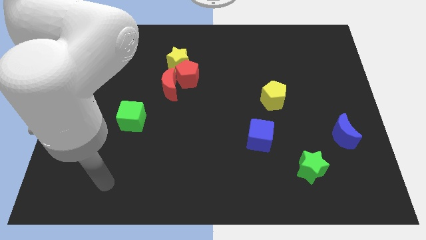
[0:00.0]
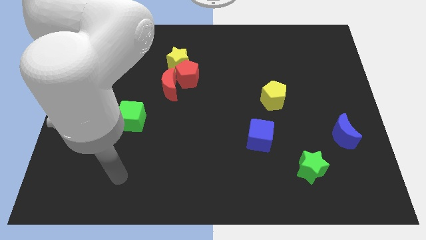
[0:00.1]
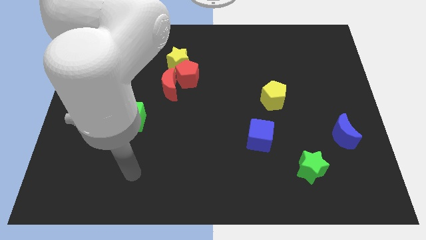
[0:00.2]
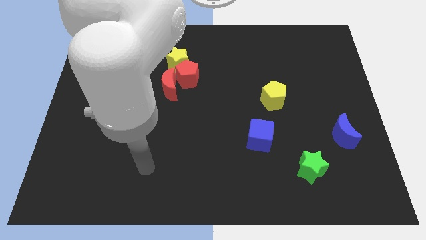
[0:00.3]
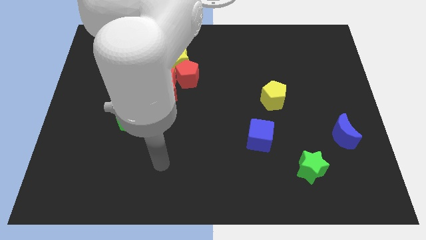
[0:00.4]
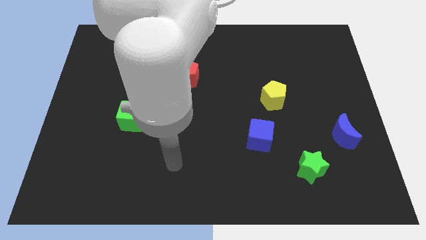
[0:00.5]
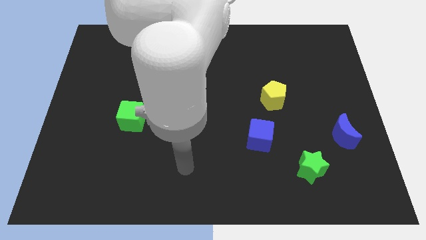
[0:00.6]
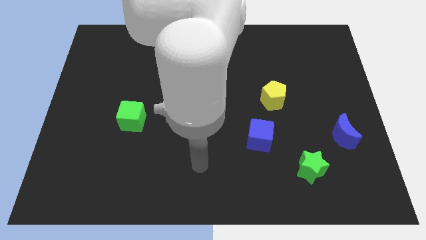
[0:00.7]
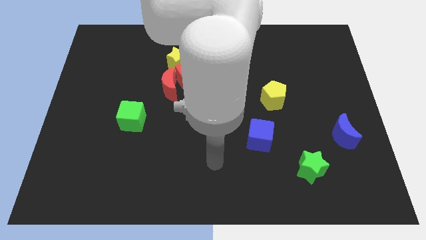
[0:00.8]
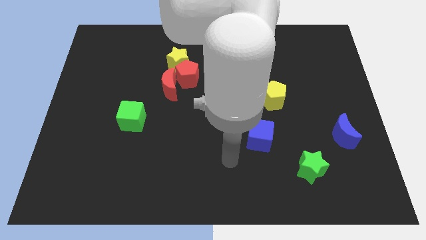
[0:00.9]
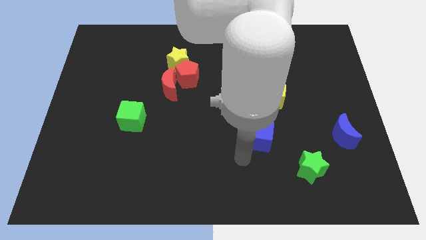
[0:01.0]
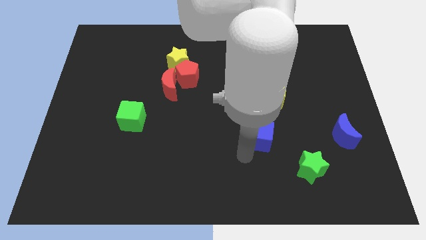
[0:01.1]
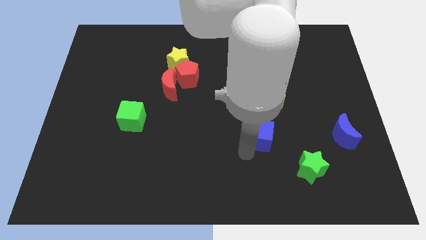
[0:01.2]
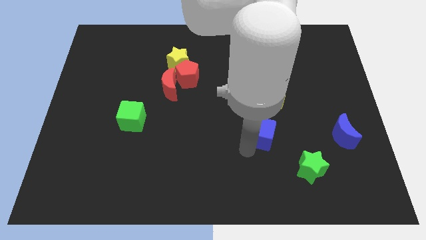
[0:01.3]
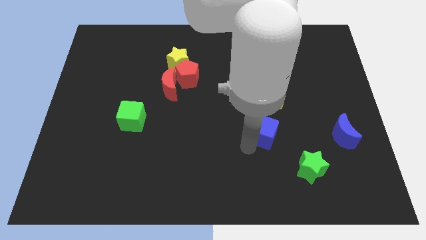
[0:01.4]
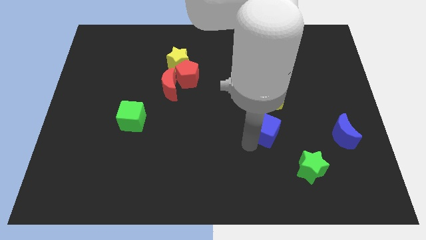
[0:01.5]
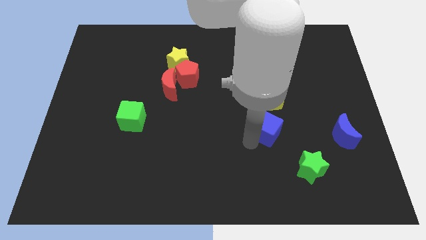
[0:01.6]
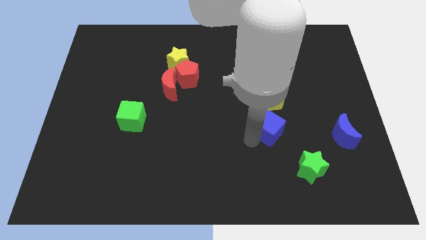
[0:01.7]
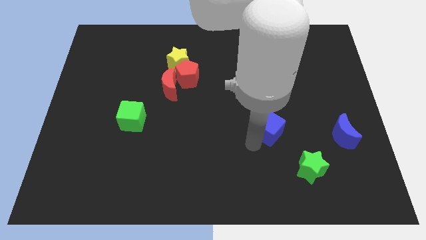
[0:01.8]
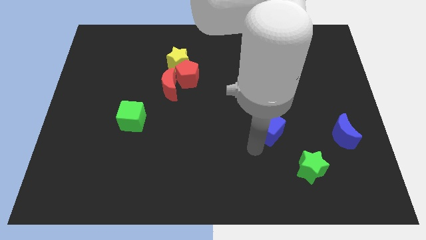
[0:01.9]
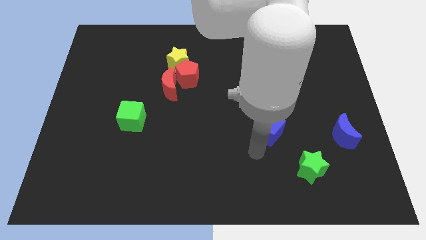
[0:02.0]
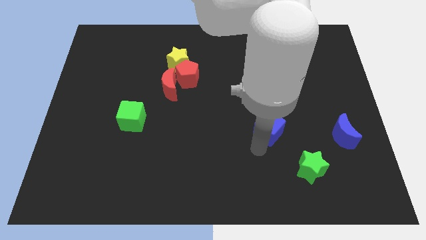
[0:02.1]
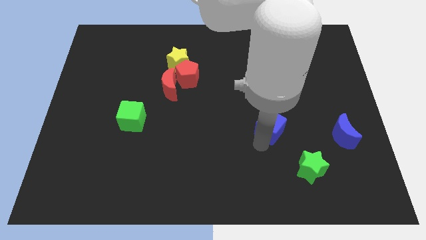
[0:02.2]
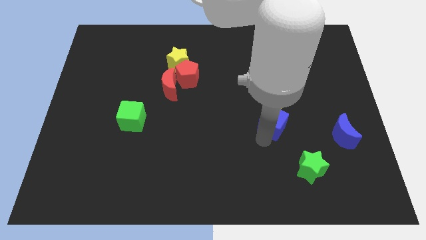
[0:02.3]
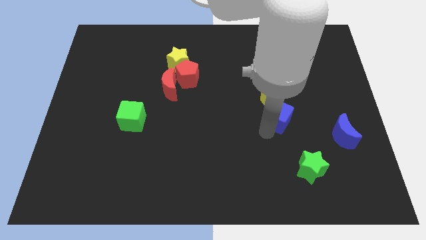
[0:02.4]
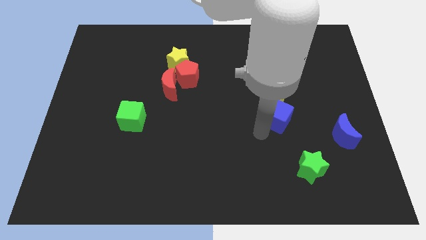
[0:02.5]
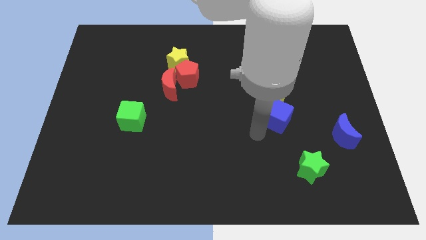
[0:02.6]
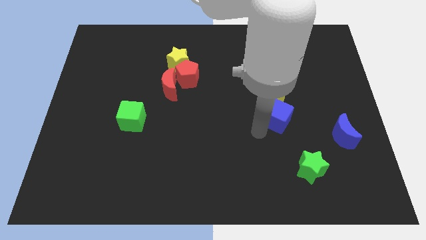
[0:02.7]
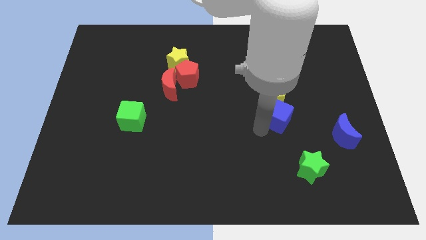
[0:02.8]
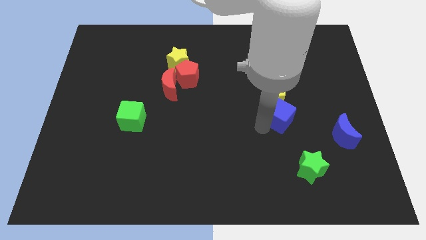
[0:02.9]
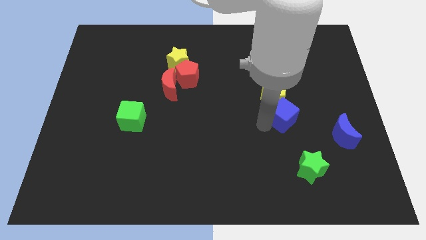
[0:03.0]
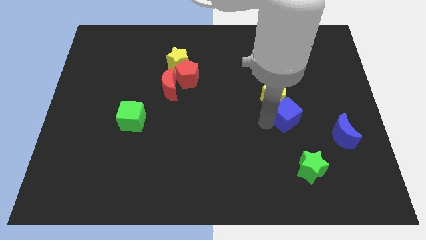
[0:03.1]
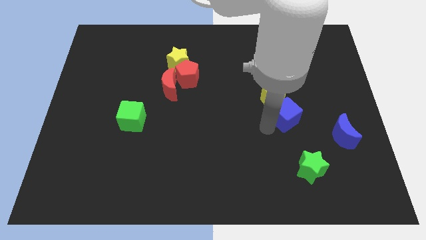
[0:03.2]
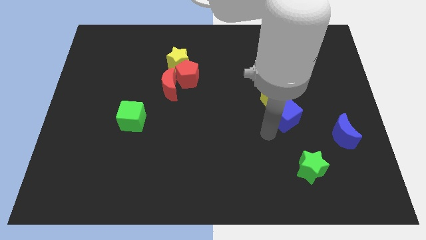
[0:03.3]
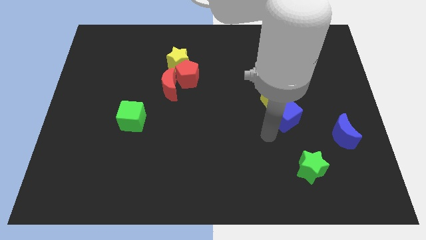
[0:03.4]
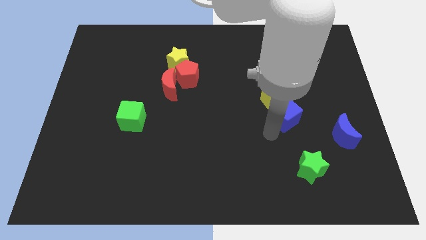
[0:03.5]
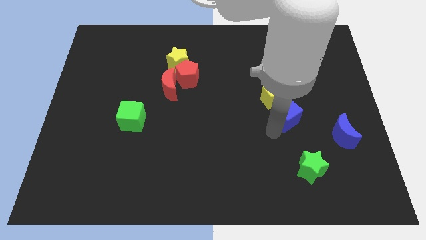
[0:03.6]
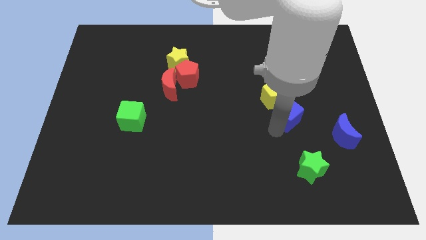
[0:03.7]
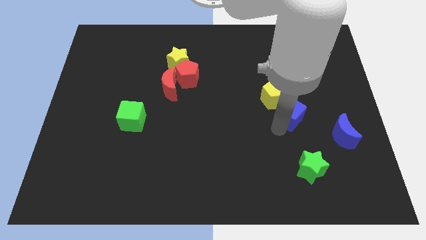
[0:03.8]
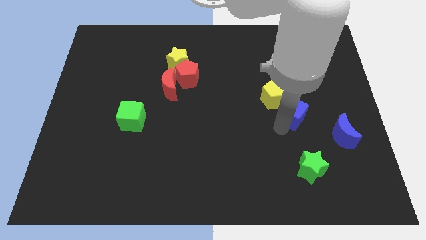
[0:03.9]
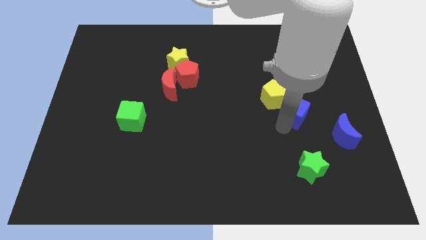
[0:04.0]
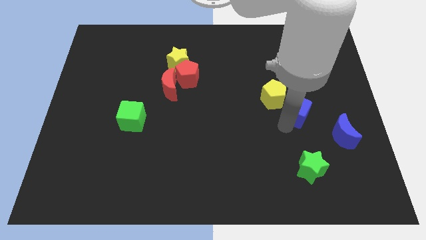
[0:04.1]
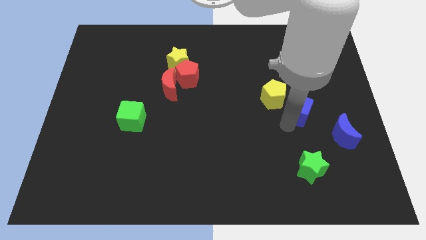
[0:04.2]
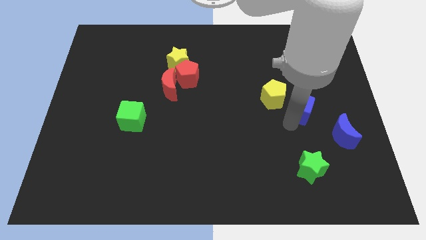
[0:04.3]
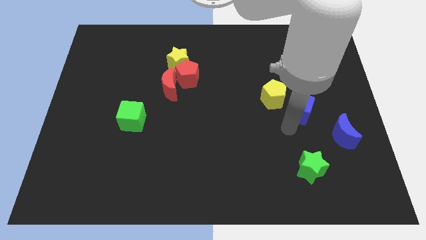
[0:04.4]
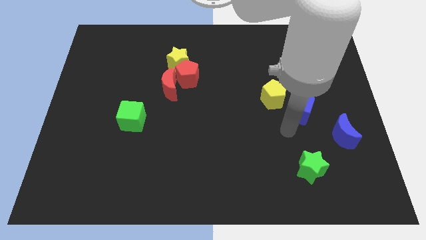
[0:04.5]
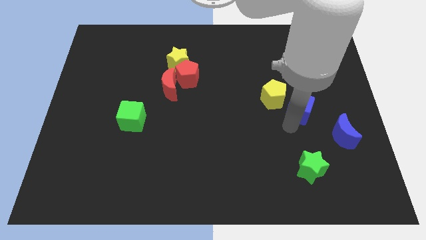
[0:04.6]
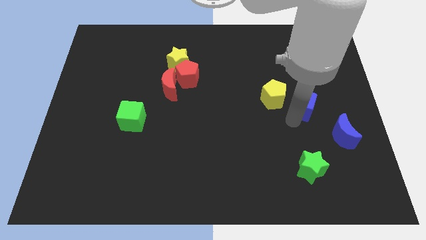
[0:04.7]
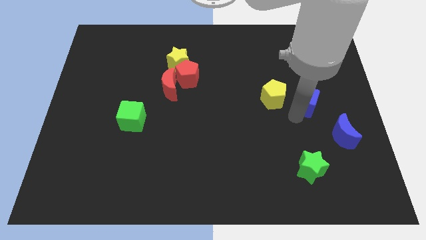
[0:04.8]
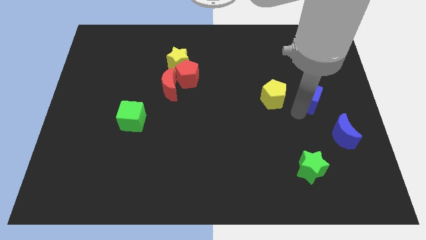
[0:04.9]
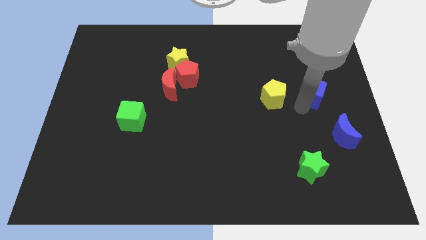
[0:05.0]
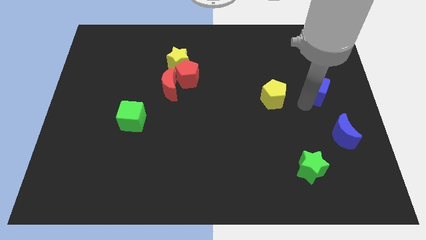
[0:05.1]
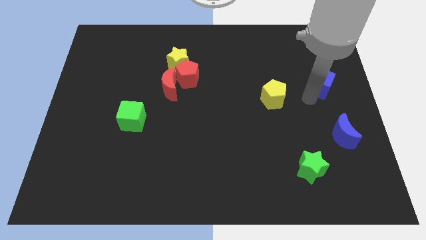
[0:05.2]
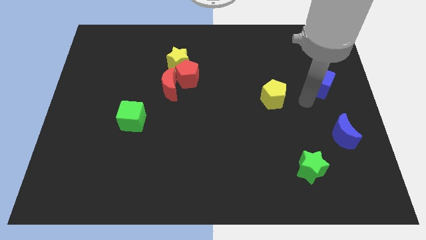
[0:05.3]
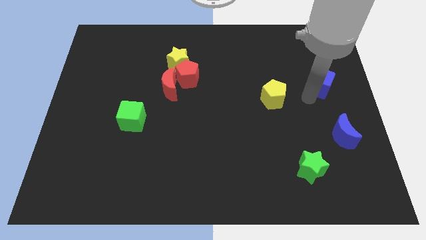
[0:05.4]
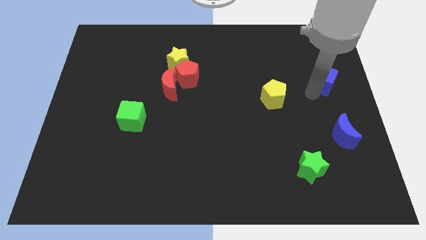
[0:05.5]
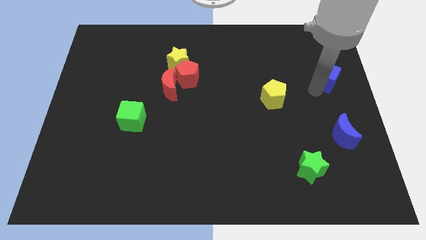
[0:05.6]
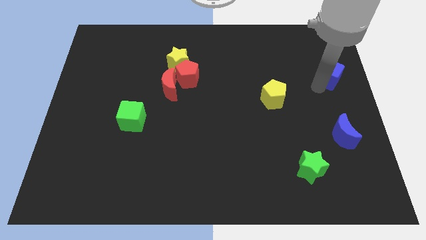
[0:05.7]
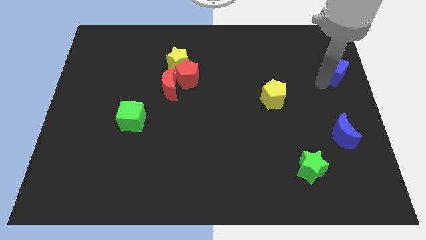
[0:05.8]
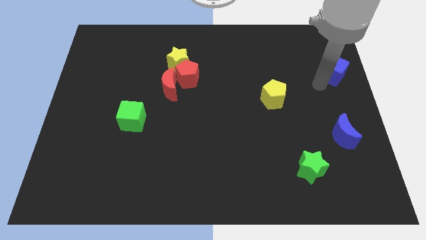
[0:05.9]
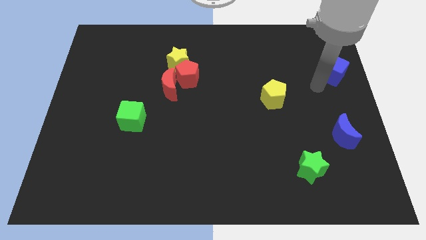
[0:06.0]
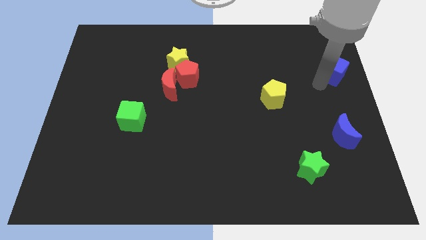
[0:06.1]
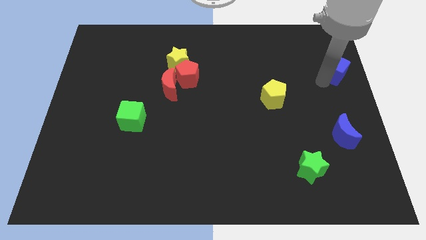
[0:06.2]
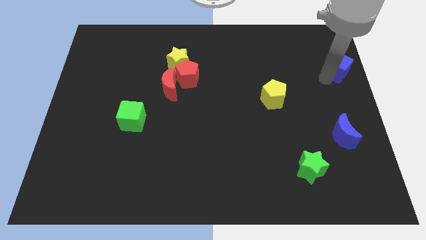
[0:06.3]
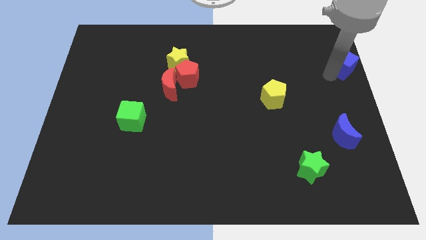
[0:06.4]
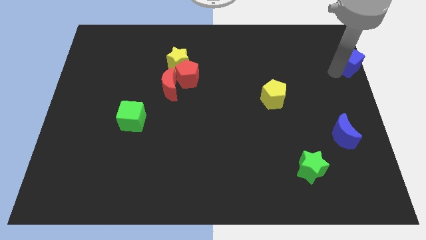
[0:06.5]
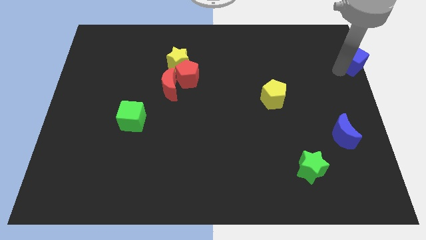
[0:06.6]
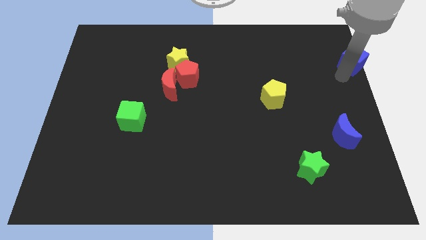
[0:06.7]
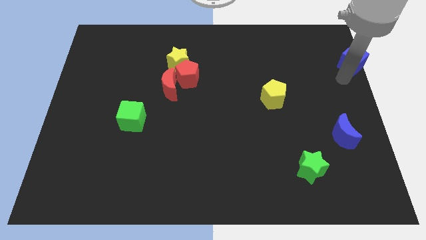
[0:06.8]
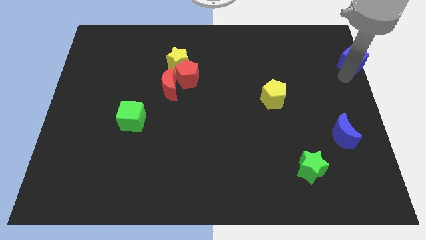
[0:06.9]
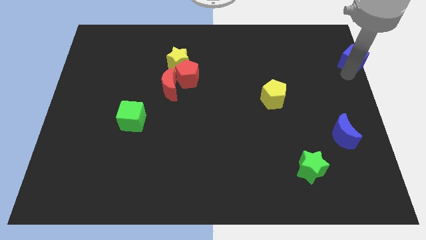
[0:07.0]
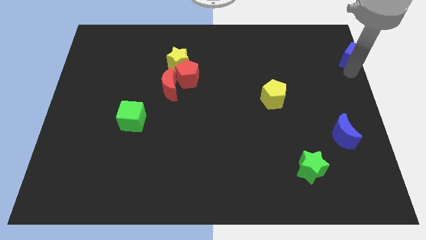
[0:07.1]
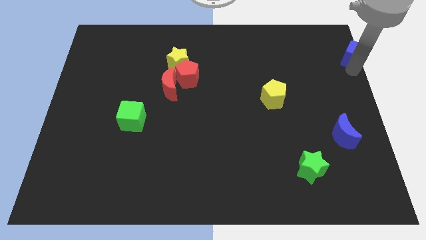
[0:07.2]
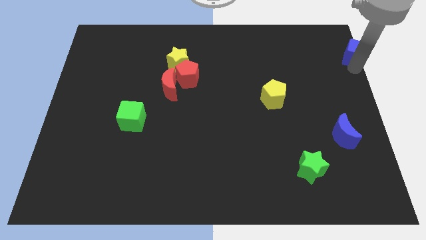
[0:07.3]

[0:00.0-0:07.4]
slide the blue cube to the top right
